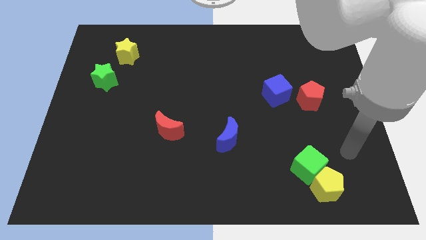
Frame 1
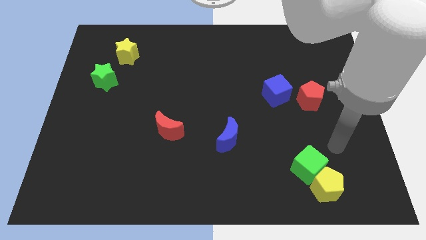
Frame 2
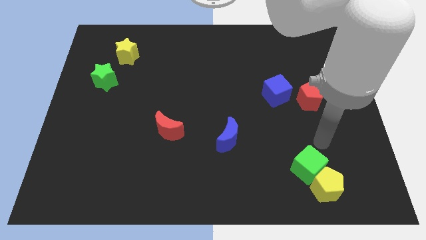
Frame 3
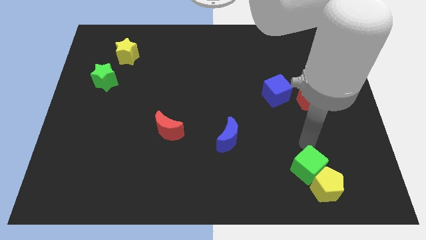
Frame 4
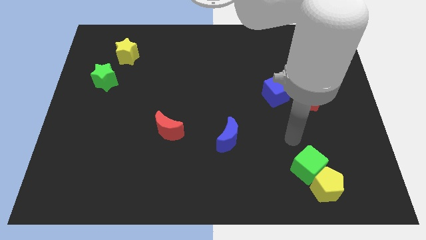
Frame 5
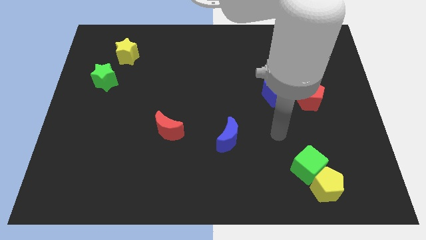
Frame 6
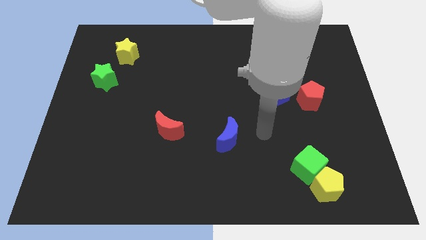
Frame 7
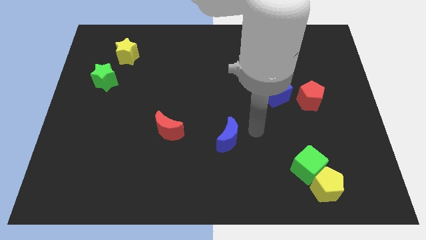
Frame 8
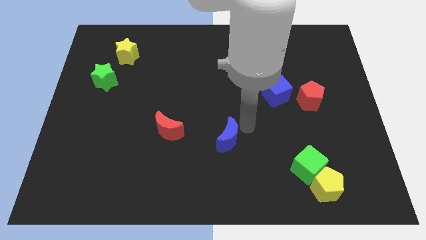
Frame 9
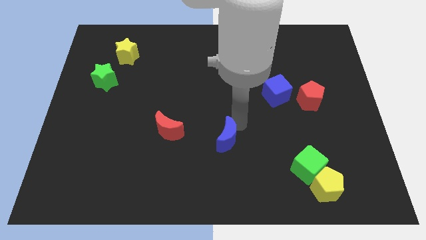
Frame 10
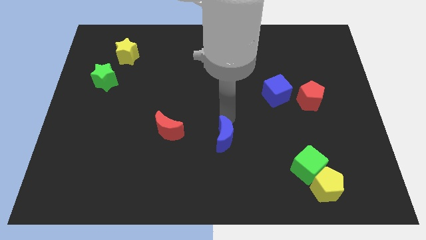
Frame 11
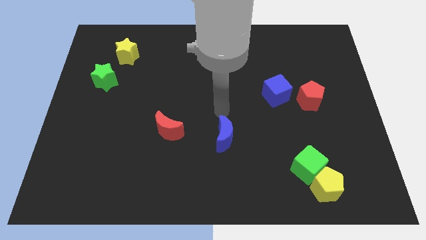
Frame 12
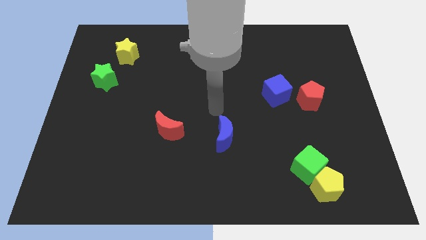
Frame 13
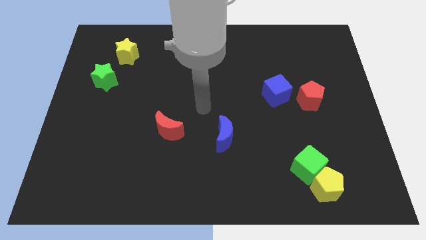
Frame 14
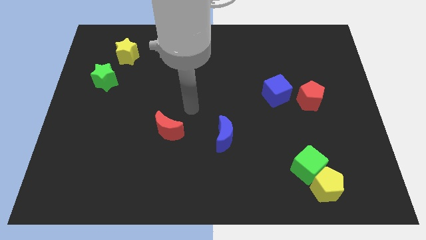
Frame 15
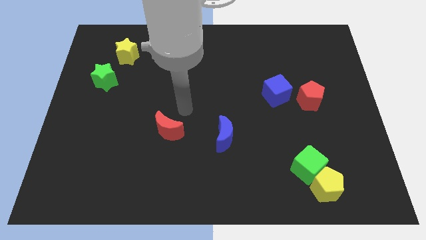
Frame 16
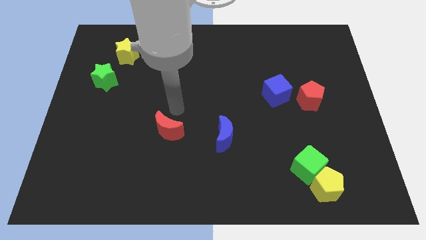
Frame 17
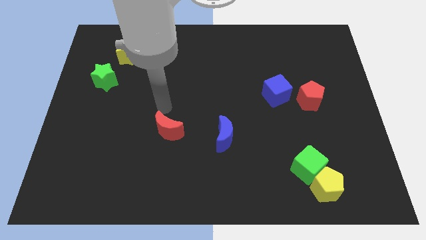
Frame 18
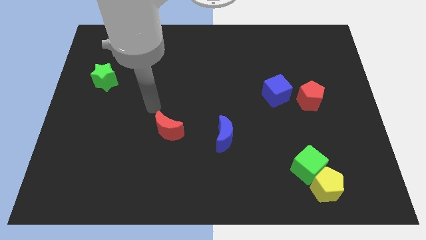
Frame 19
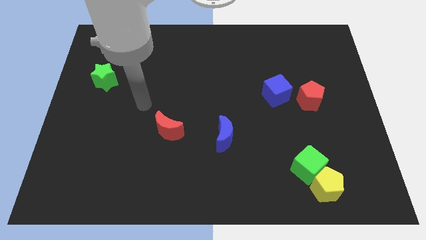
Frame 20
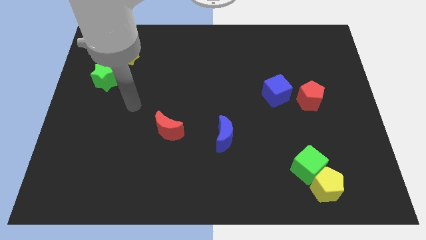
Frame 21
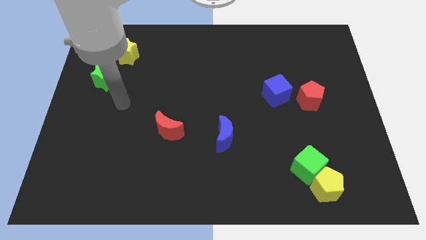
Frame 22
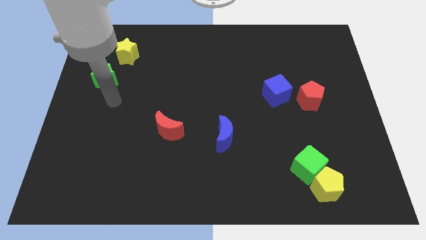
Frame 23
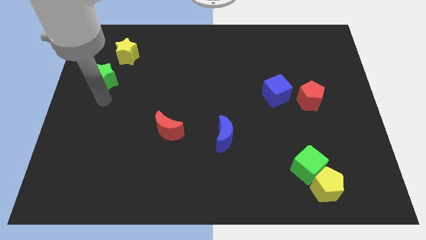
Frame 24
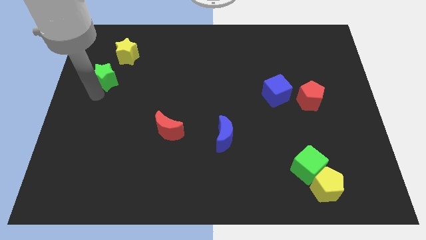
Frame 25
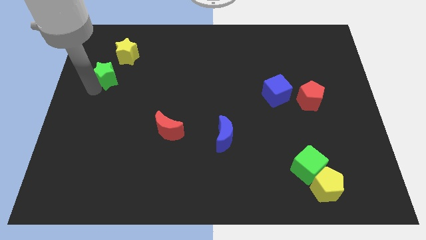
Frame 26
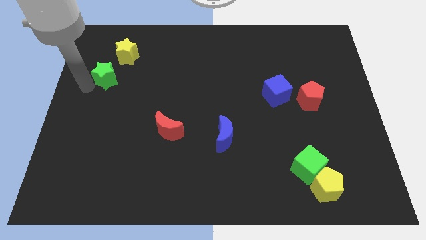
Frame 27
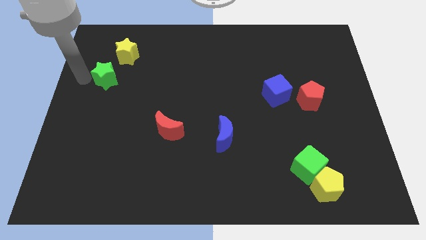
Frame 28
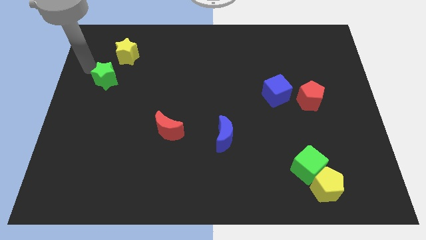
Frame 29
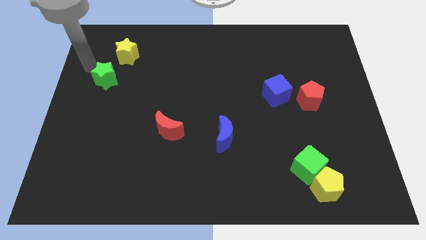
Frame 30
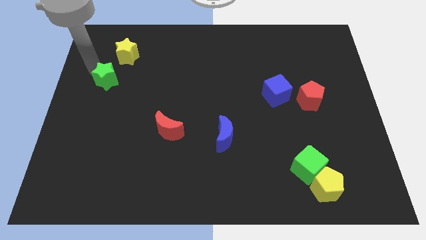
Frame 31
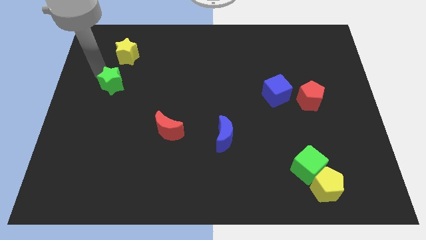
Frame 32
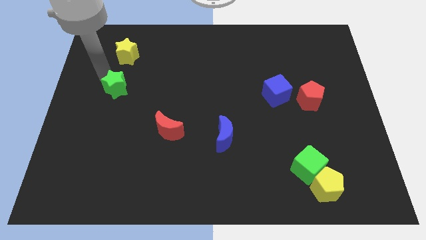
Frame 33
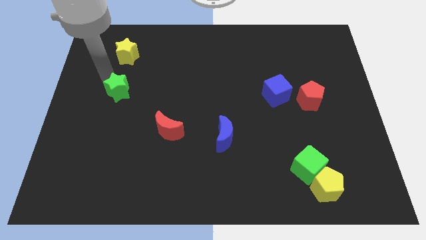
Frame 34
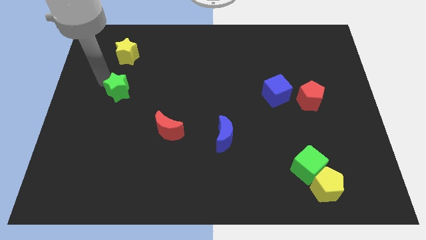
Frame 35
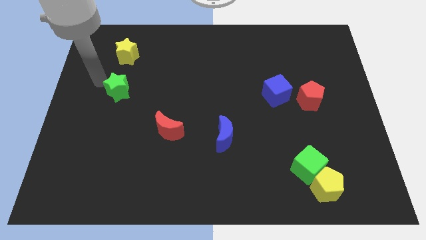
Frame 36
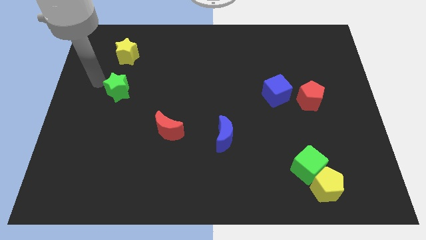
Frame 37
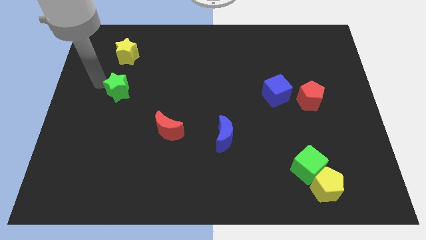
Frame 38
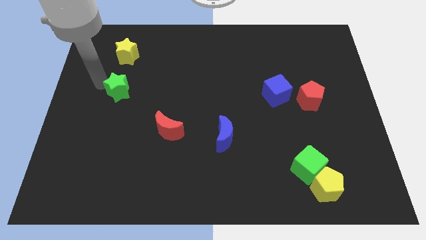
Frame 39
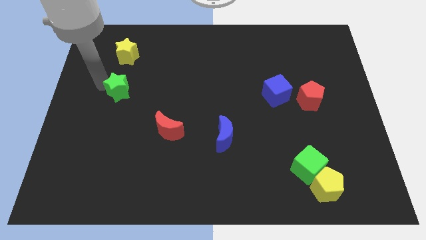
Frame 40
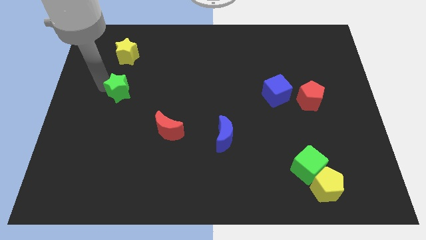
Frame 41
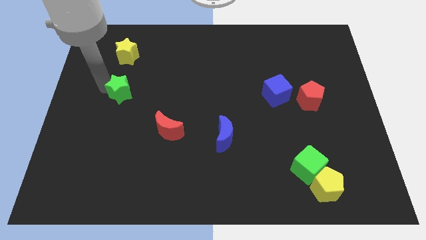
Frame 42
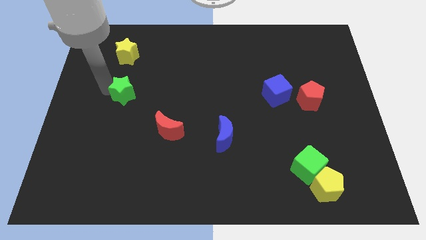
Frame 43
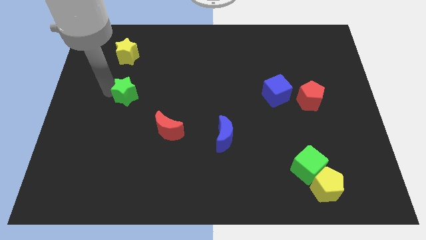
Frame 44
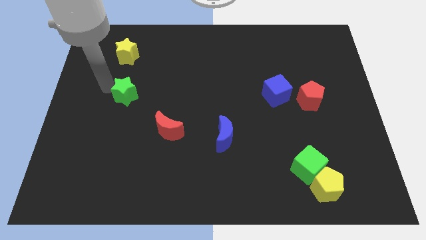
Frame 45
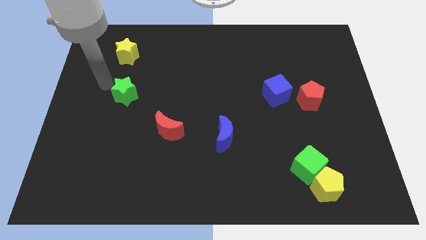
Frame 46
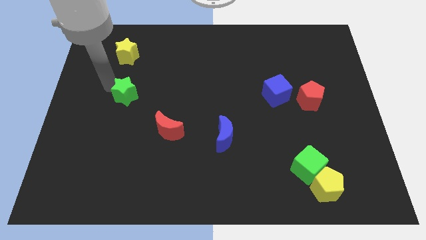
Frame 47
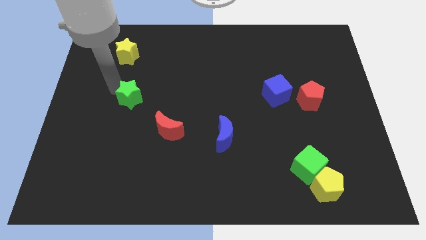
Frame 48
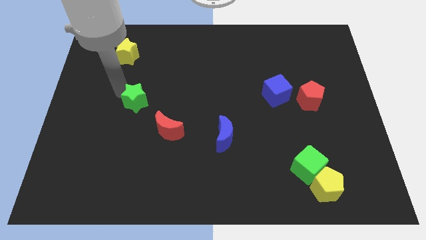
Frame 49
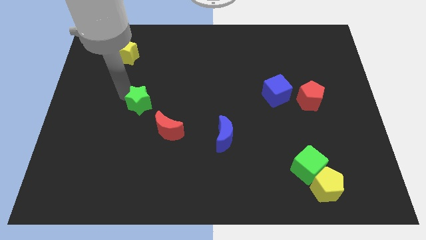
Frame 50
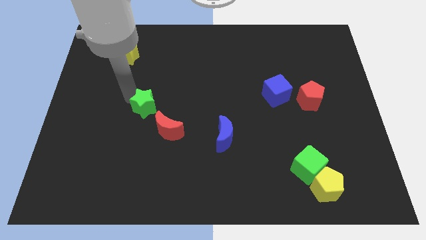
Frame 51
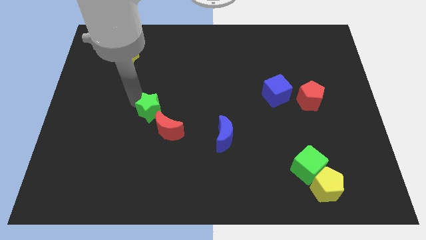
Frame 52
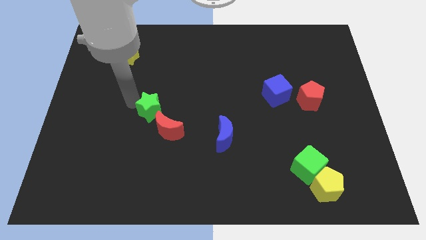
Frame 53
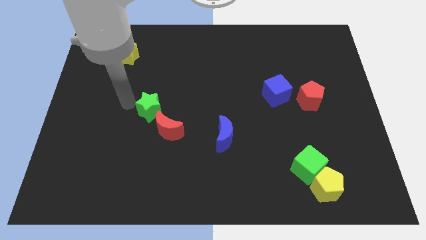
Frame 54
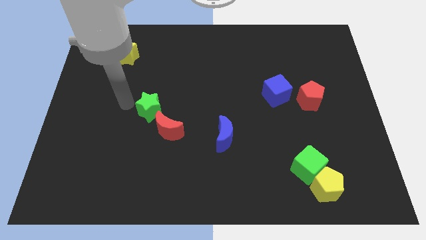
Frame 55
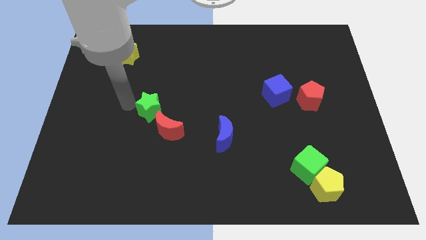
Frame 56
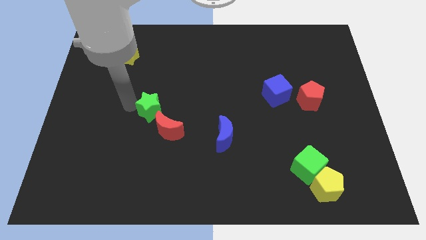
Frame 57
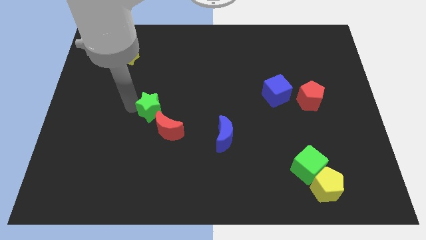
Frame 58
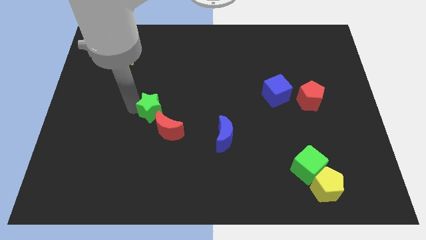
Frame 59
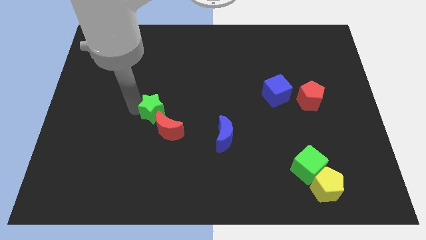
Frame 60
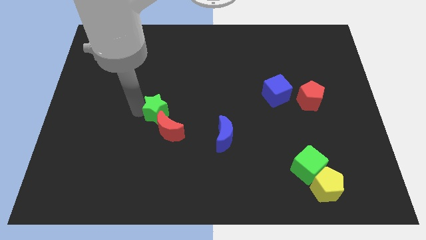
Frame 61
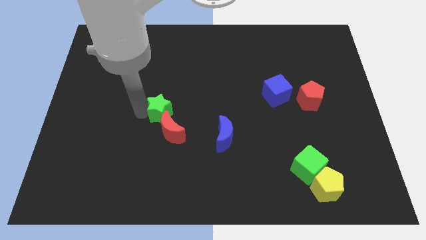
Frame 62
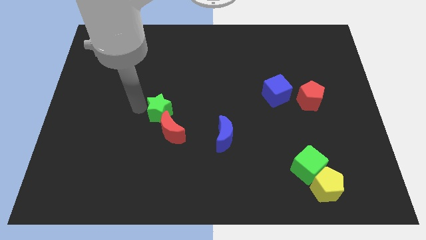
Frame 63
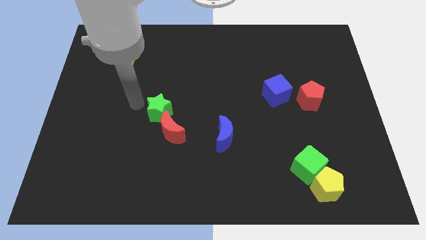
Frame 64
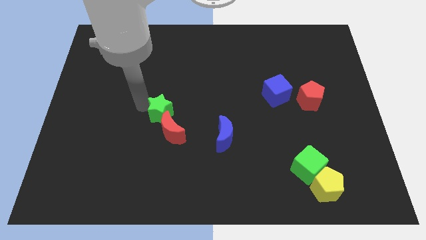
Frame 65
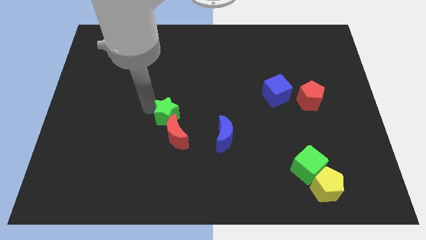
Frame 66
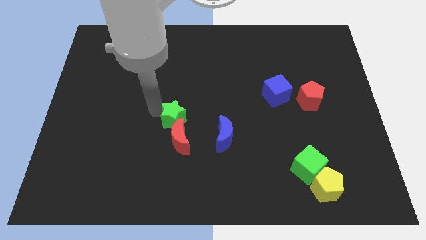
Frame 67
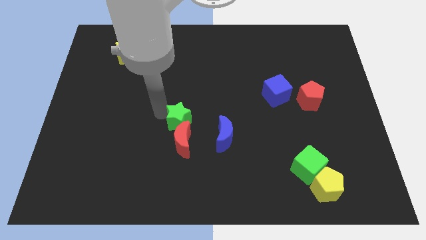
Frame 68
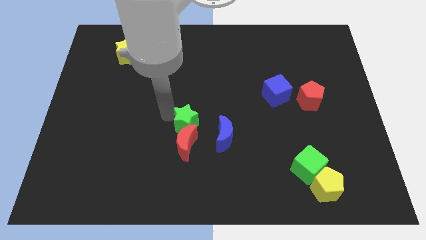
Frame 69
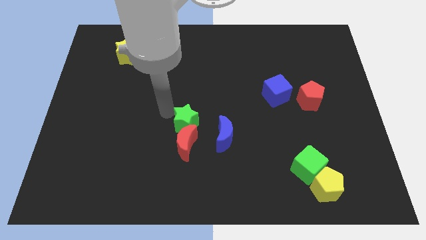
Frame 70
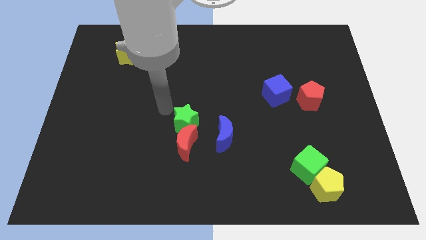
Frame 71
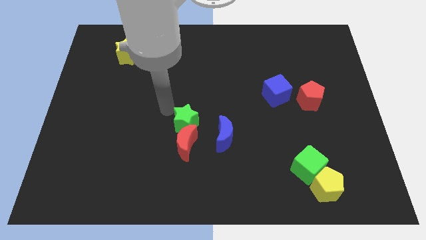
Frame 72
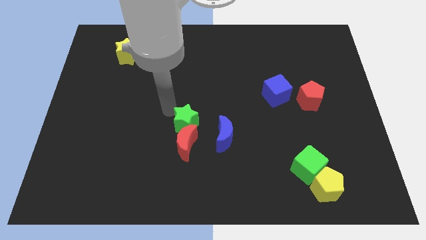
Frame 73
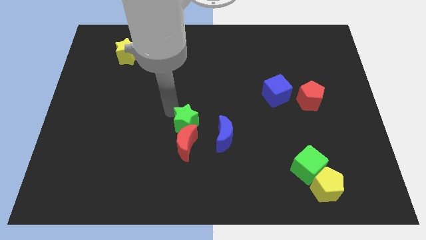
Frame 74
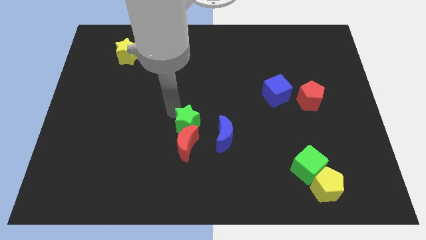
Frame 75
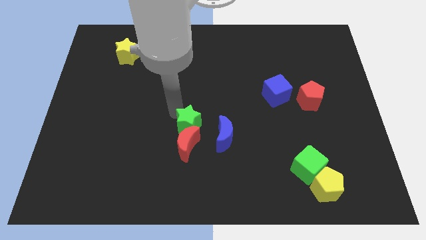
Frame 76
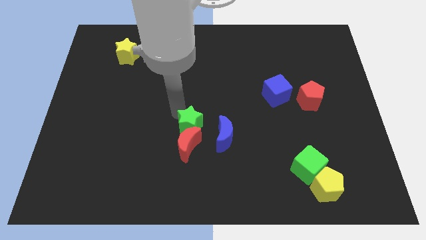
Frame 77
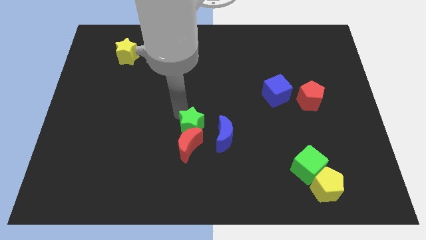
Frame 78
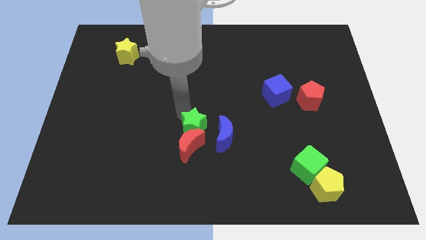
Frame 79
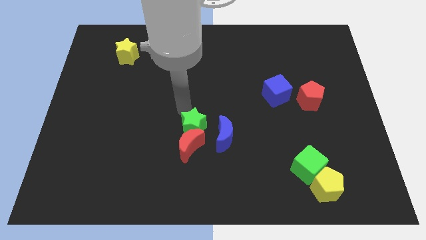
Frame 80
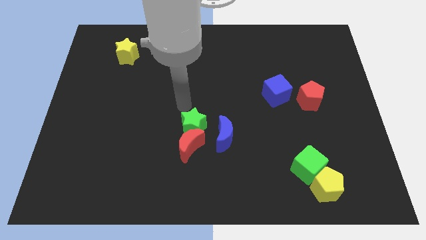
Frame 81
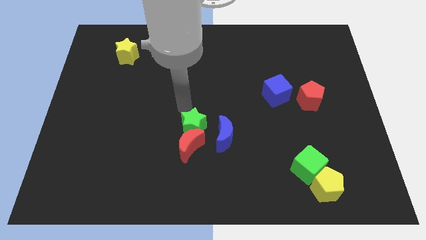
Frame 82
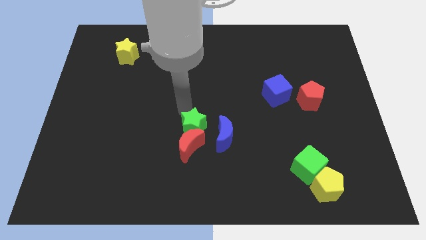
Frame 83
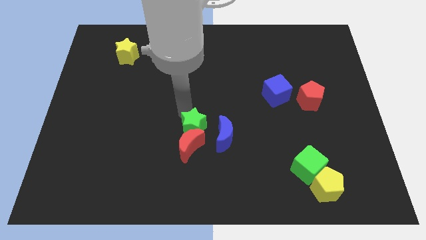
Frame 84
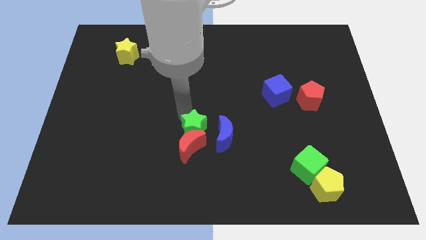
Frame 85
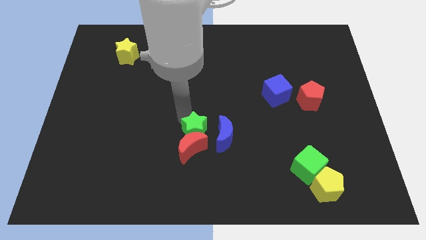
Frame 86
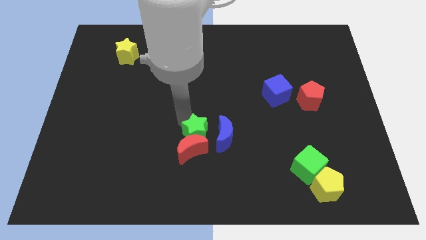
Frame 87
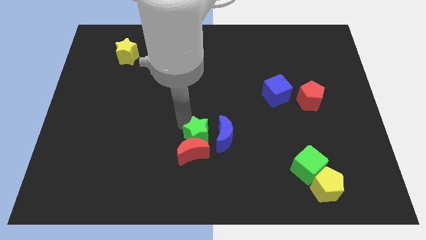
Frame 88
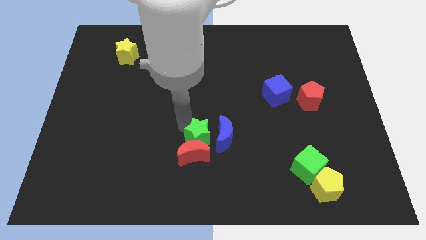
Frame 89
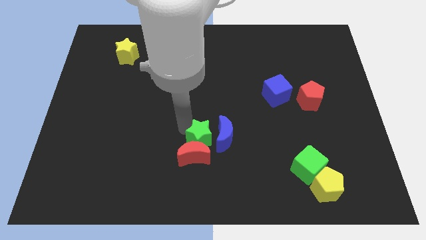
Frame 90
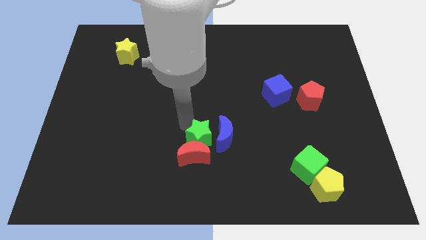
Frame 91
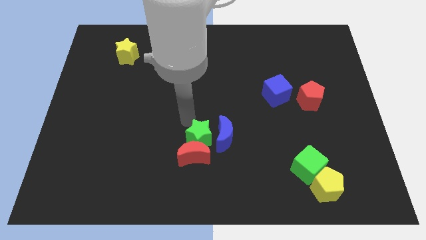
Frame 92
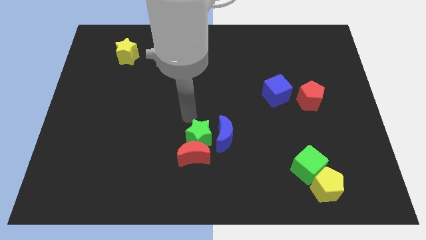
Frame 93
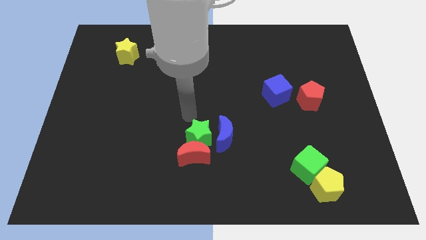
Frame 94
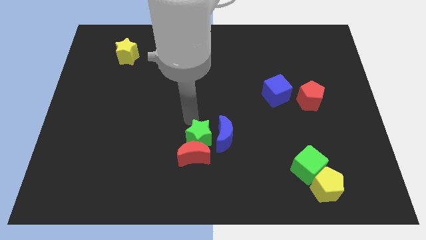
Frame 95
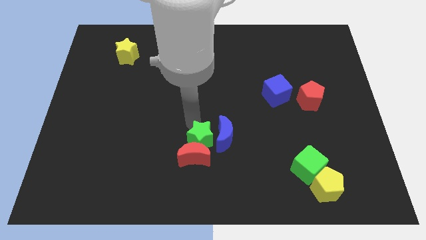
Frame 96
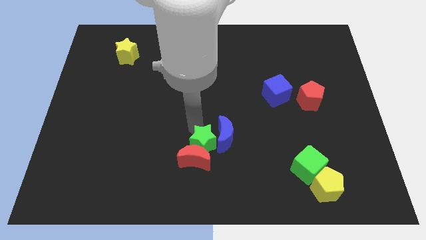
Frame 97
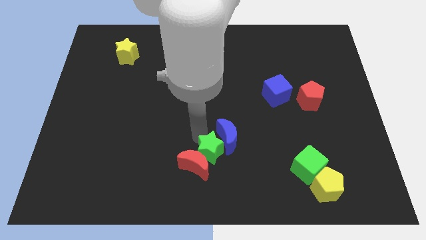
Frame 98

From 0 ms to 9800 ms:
slide the green star to the bottom of the blue moon
